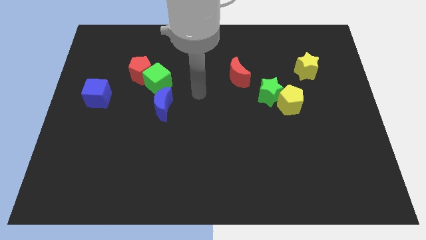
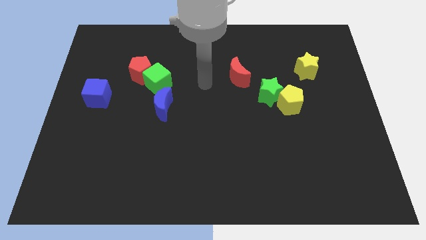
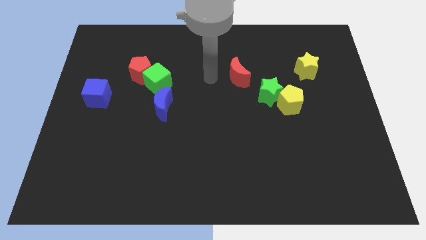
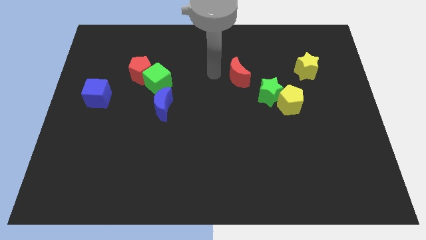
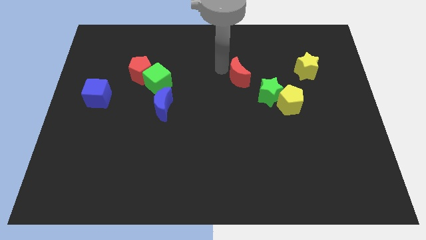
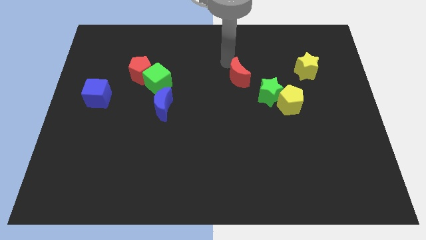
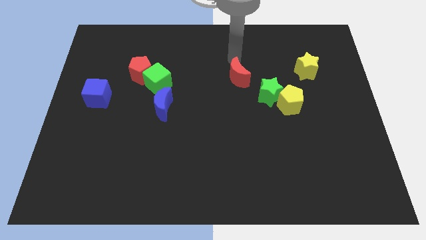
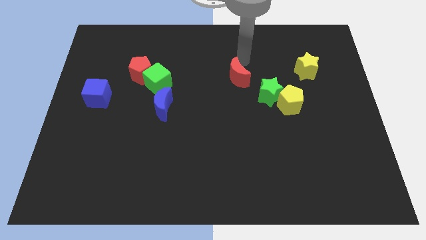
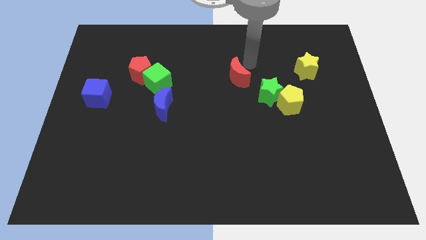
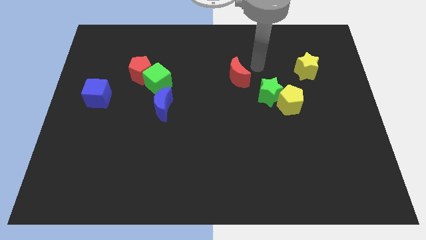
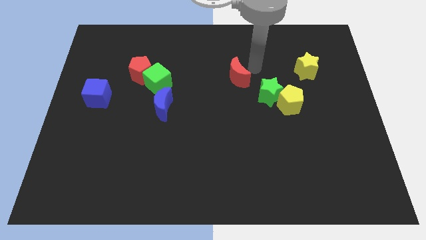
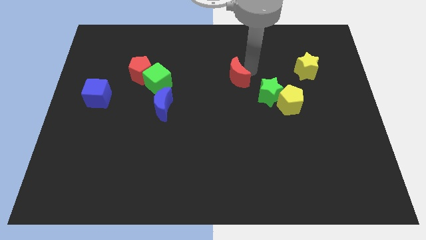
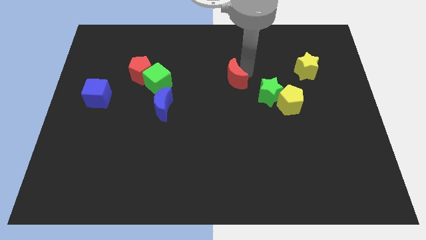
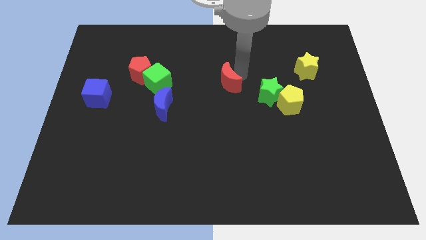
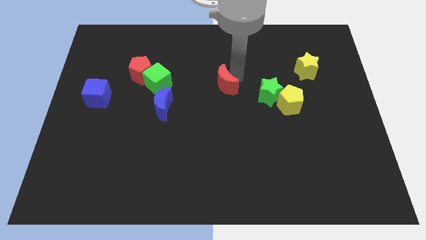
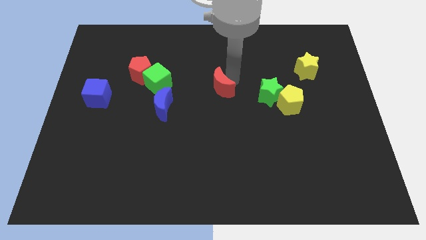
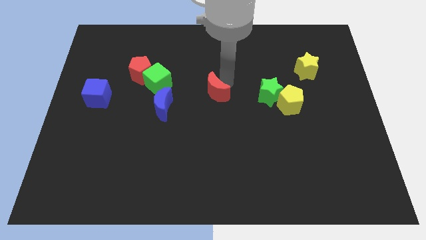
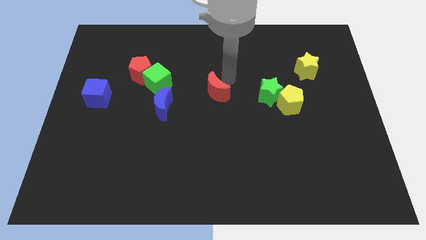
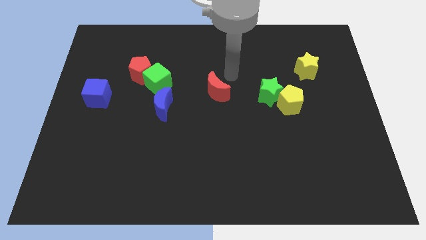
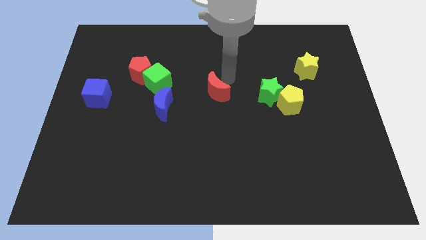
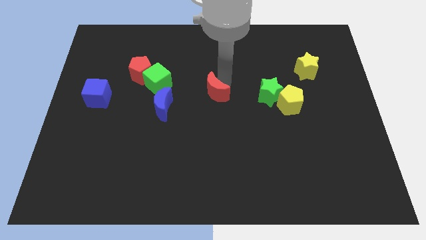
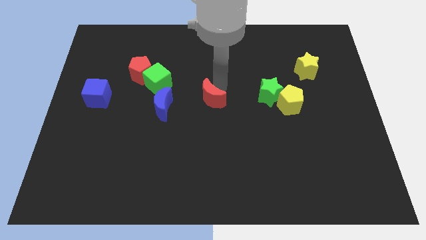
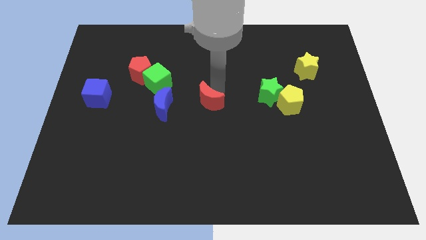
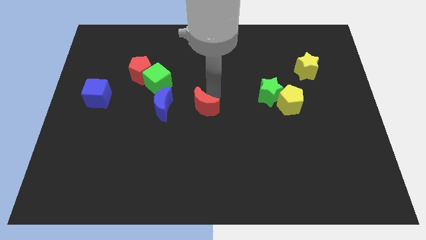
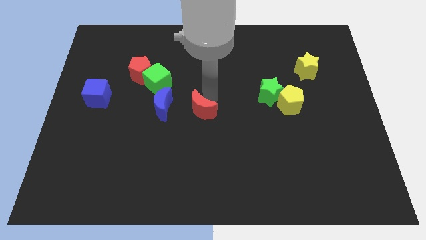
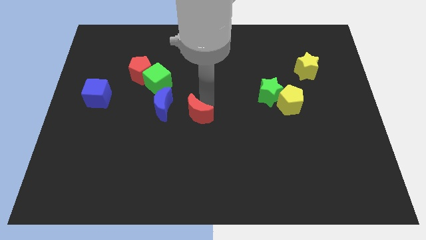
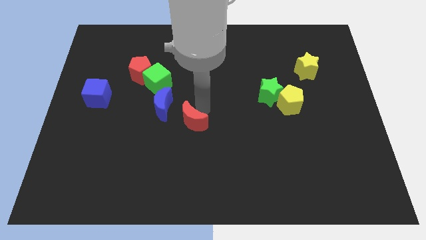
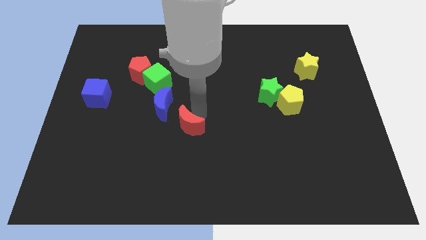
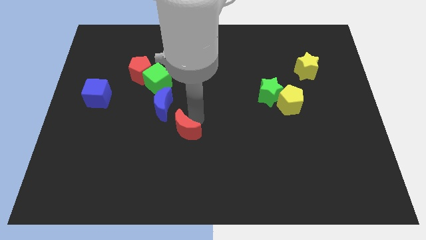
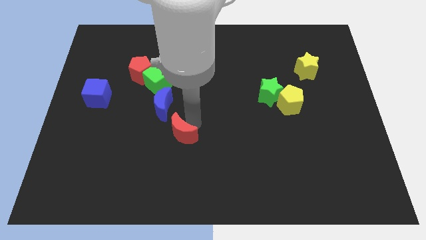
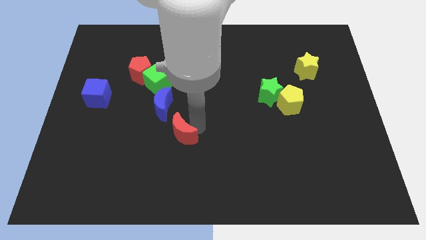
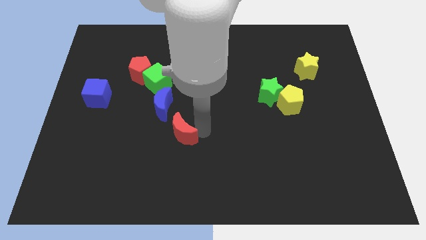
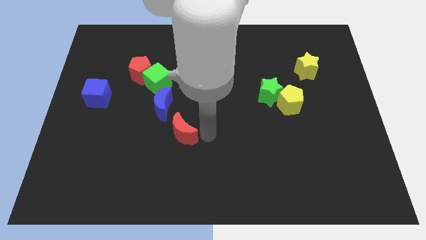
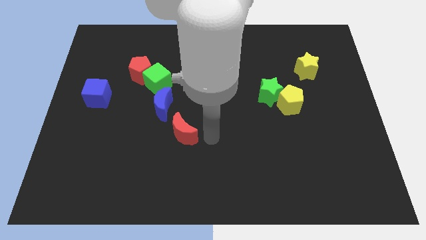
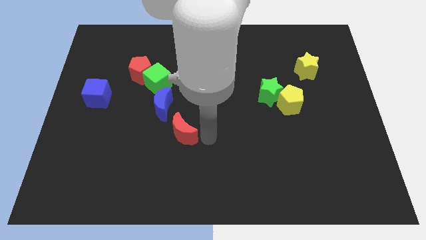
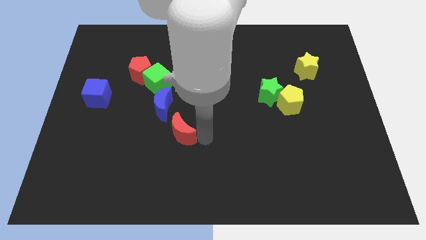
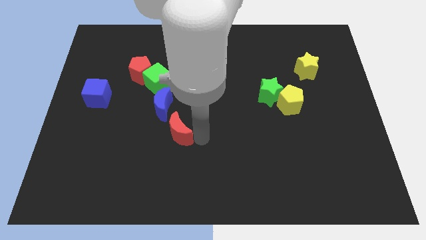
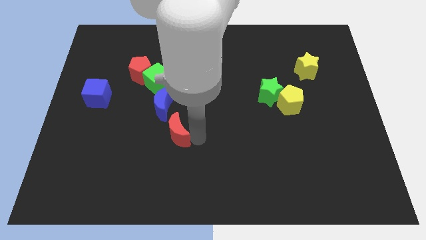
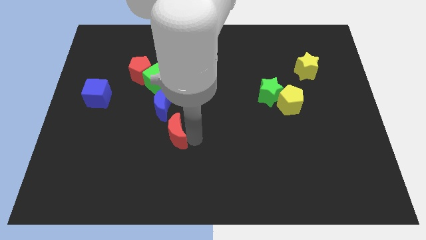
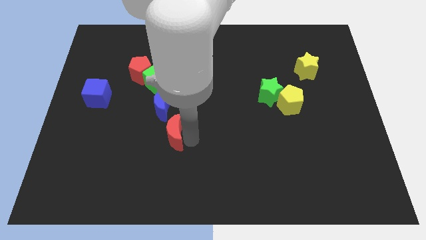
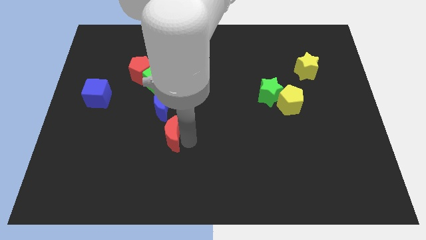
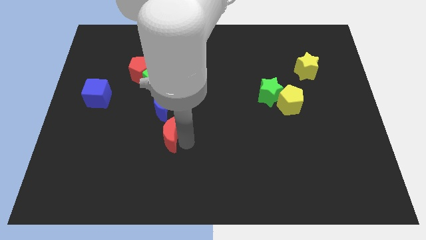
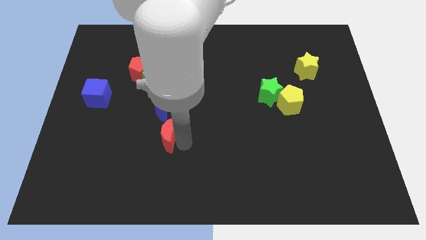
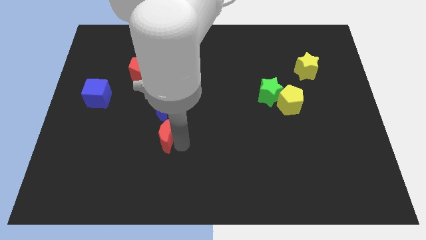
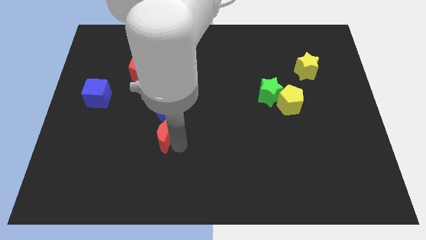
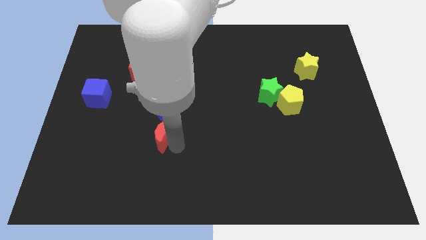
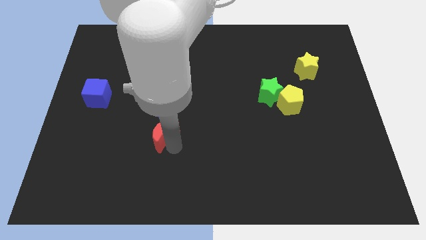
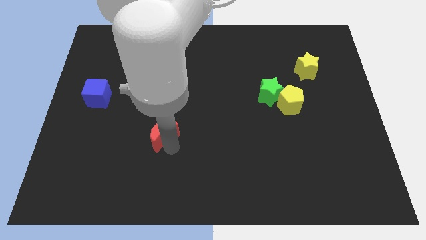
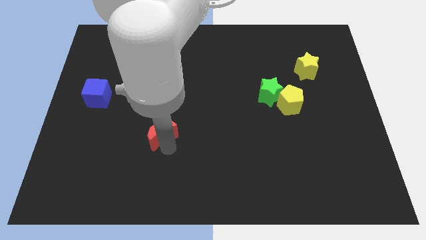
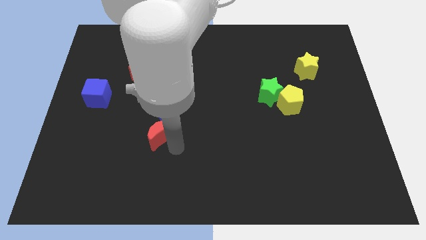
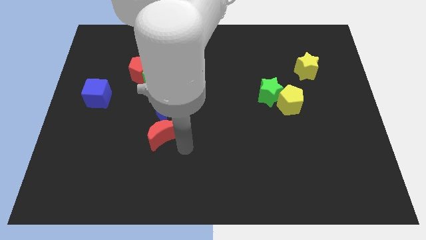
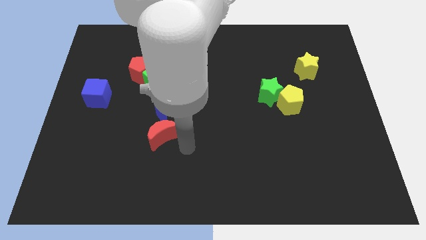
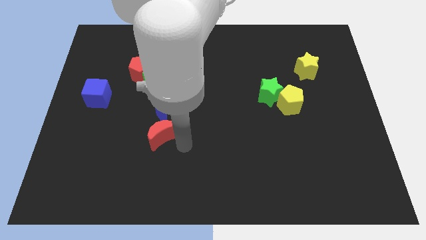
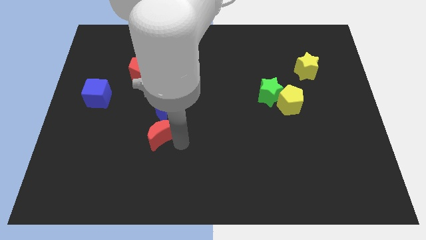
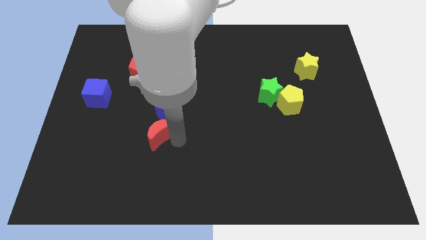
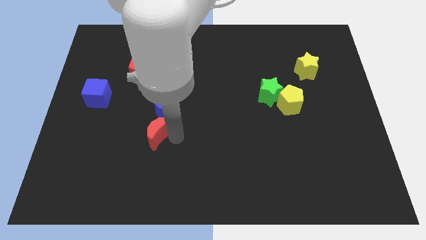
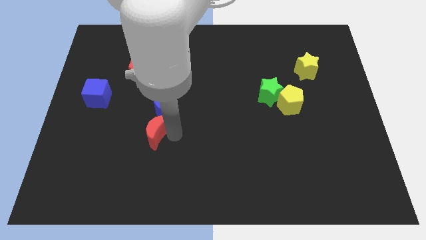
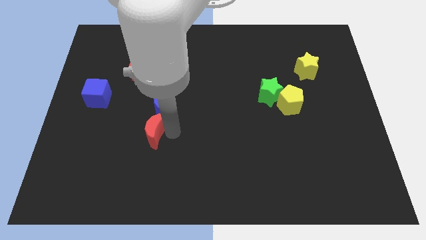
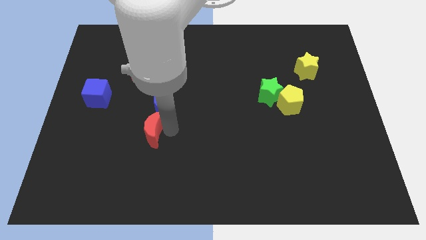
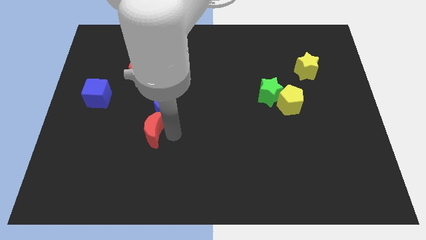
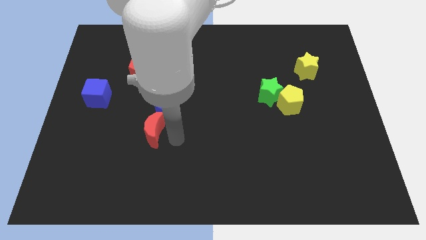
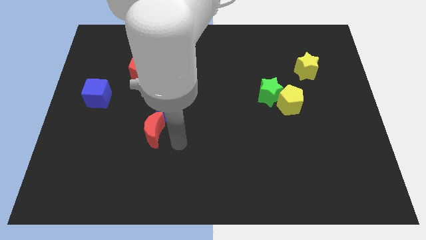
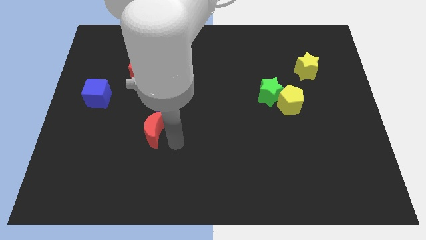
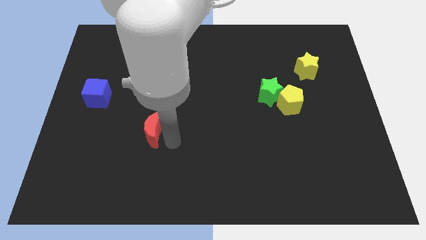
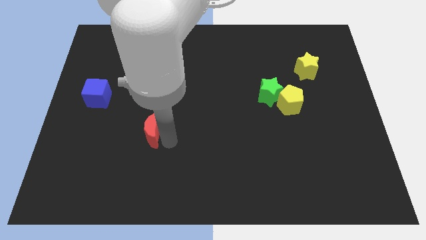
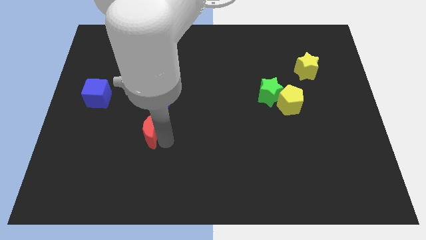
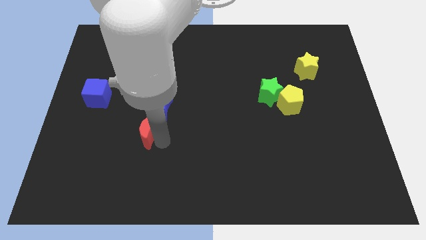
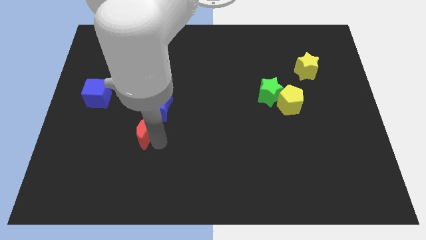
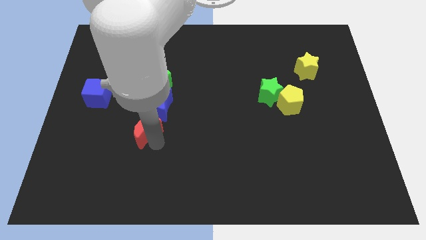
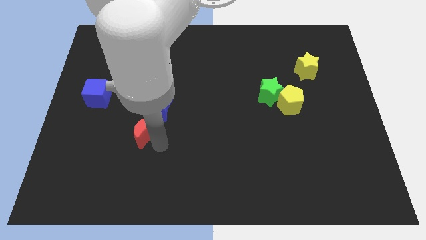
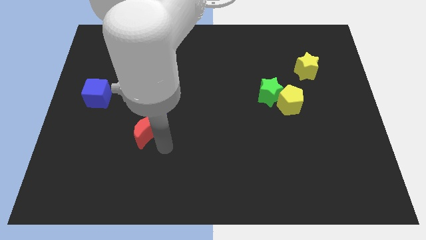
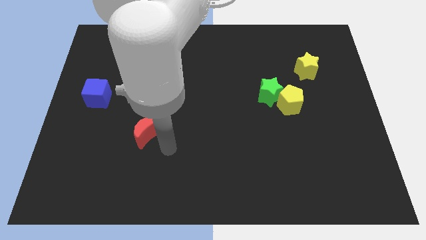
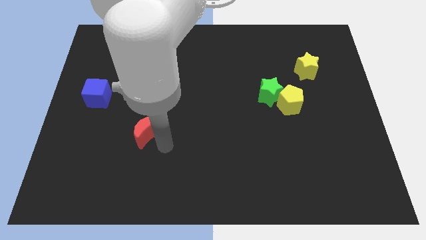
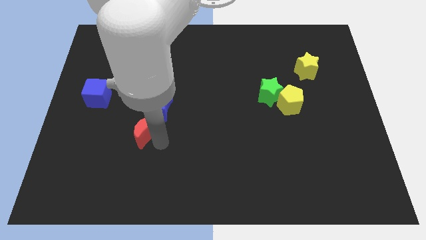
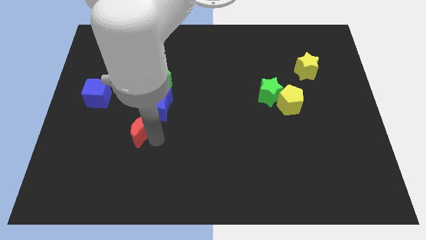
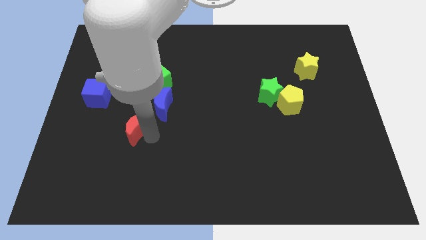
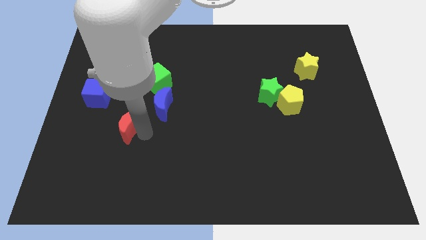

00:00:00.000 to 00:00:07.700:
put the red moon to the bottom right side of the blue cube

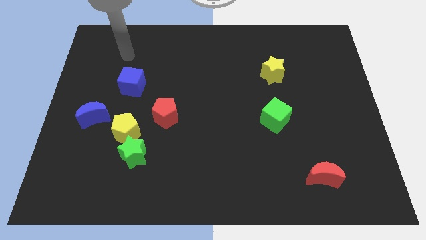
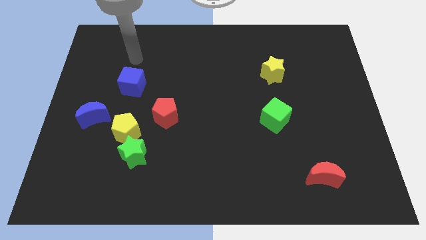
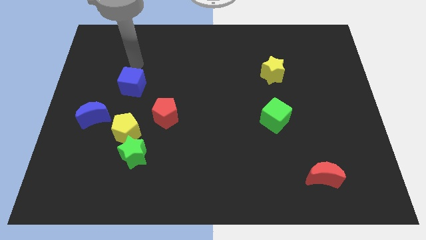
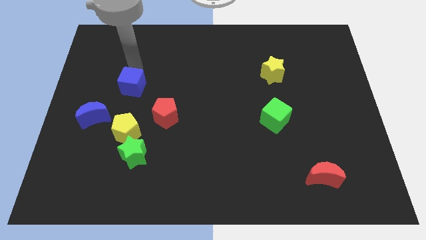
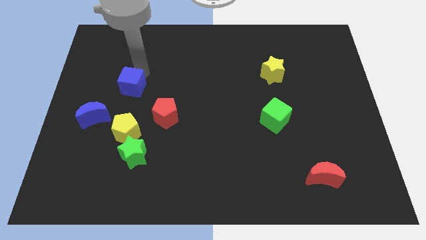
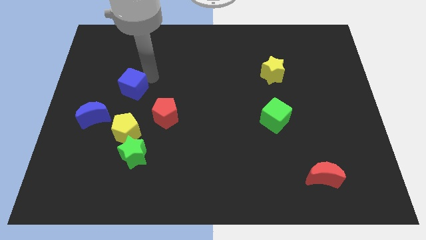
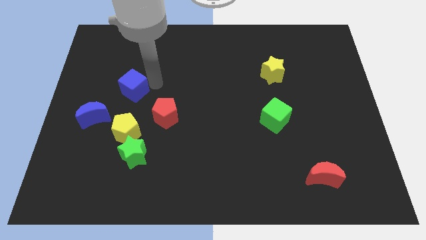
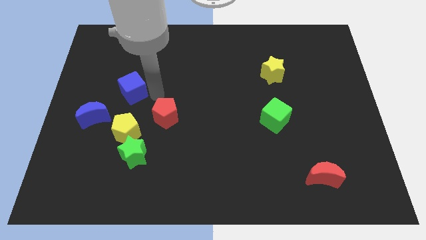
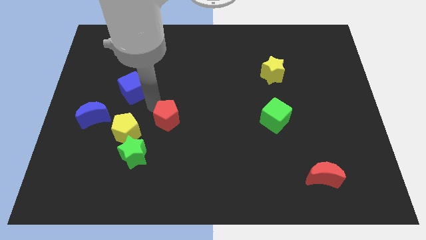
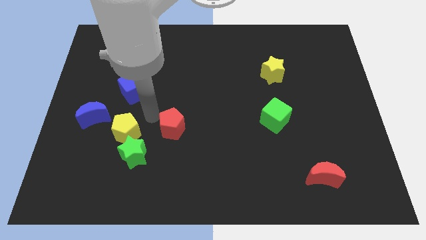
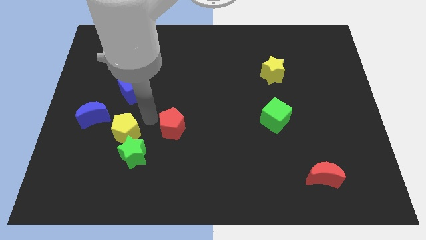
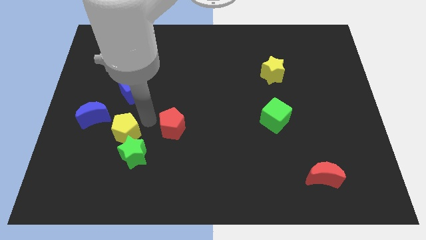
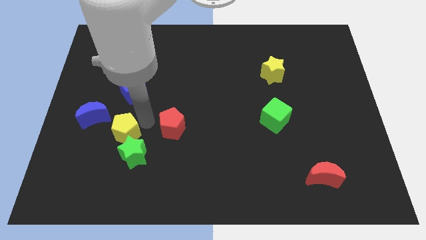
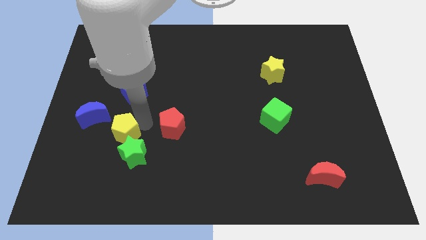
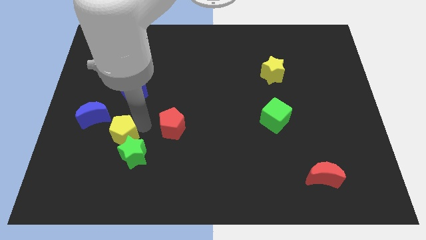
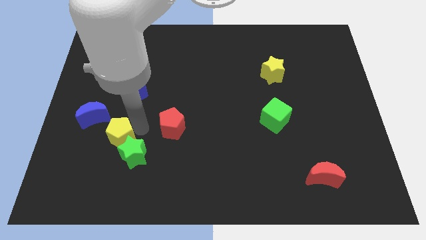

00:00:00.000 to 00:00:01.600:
put the yellow pentagon left of the green star
